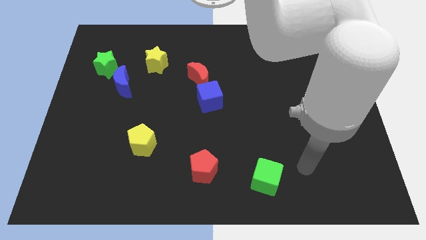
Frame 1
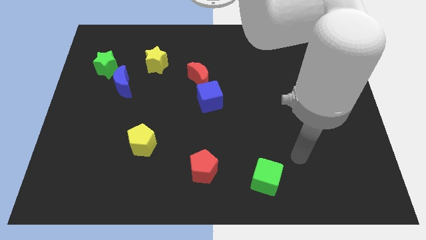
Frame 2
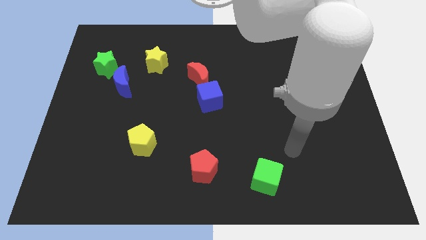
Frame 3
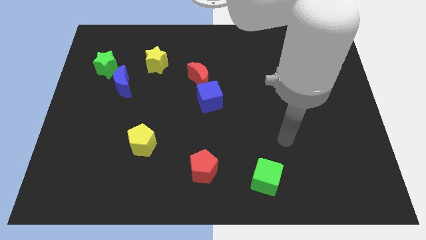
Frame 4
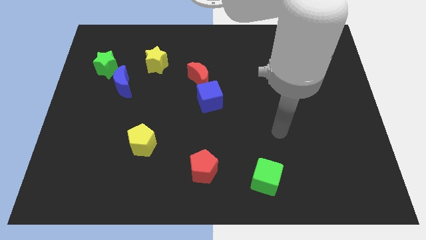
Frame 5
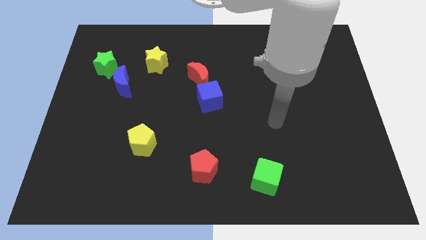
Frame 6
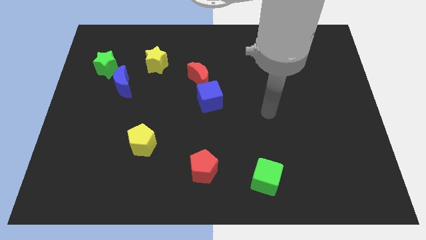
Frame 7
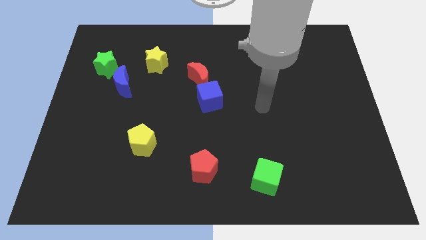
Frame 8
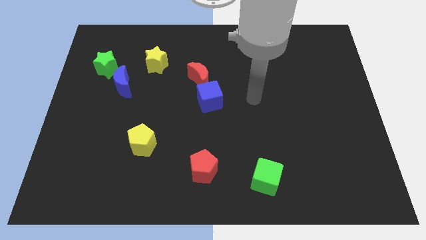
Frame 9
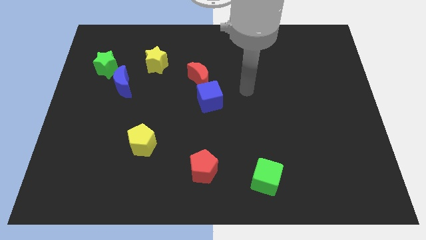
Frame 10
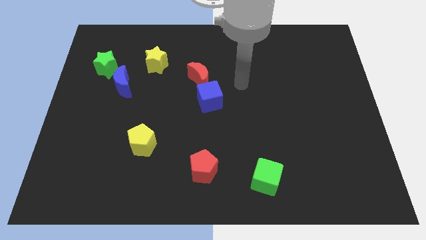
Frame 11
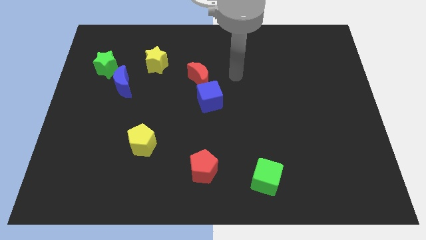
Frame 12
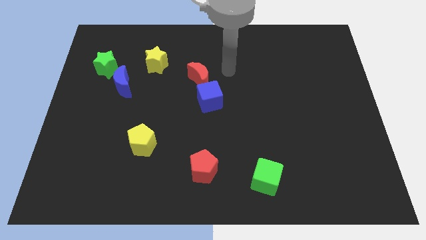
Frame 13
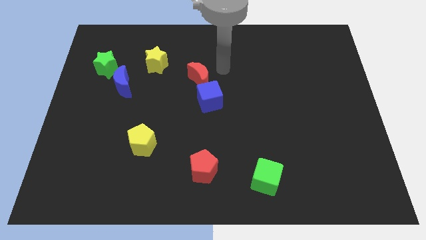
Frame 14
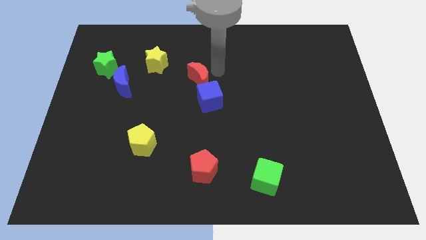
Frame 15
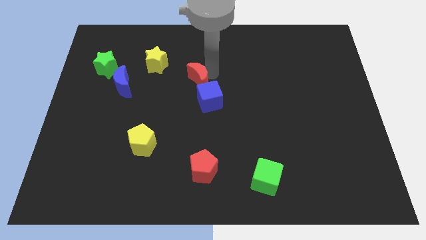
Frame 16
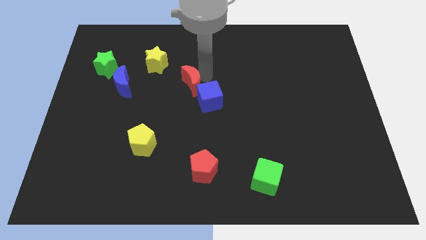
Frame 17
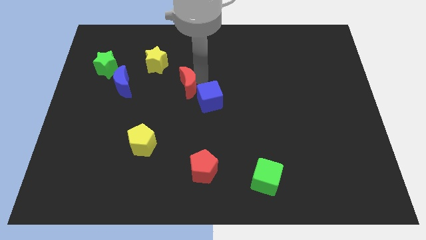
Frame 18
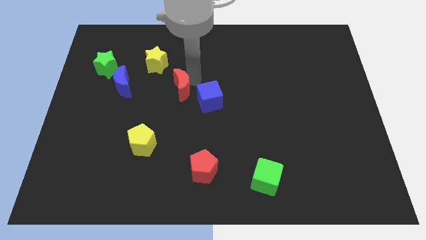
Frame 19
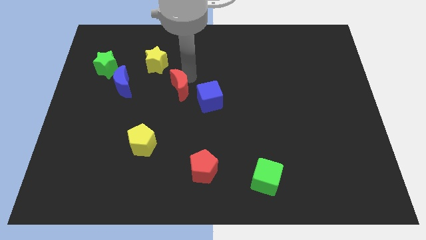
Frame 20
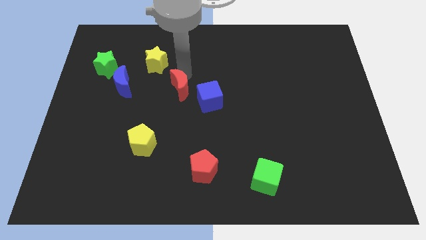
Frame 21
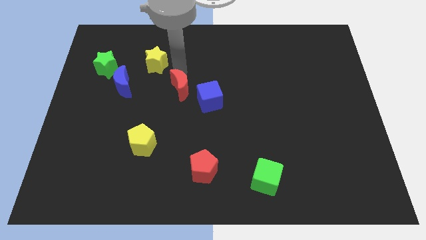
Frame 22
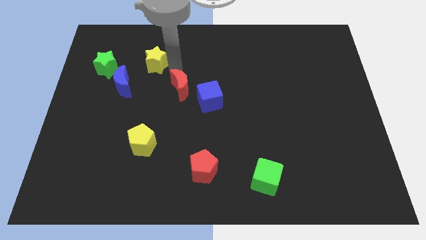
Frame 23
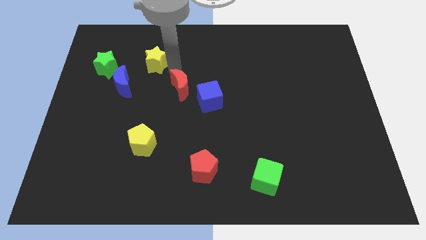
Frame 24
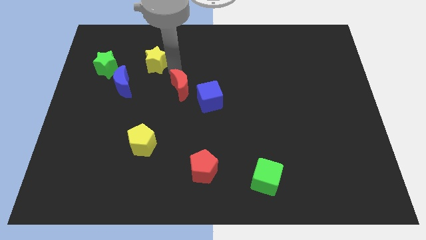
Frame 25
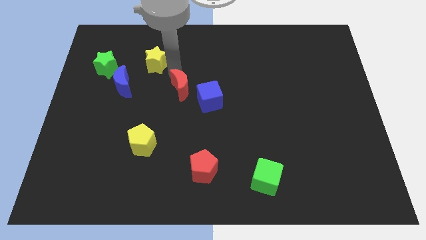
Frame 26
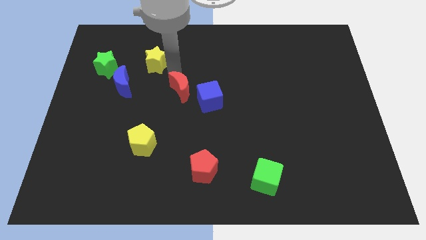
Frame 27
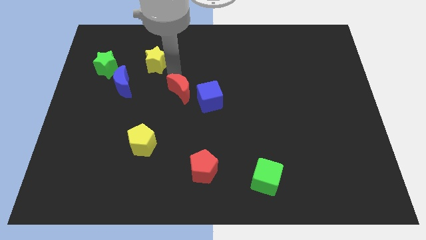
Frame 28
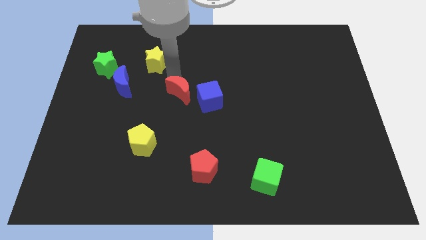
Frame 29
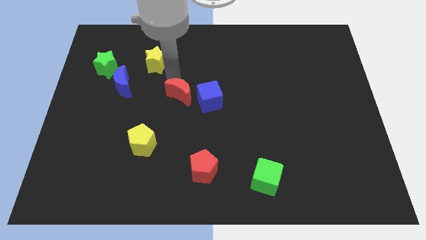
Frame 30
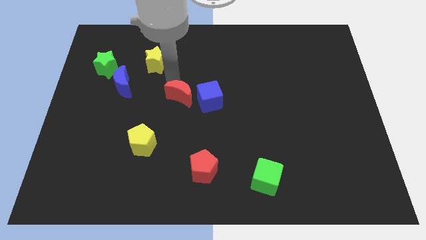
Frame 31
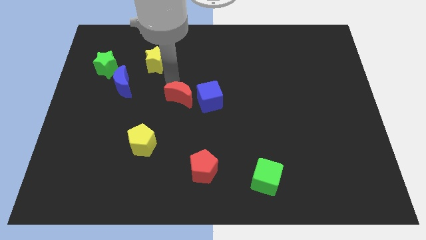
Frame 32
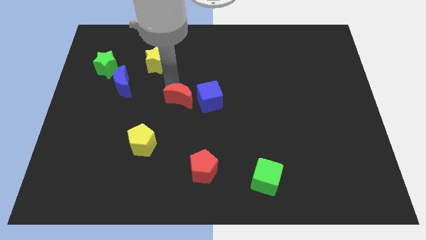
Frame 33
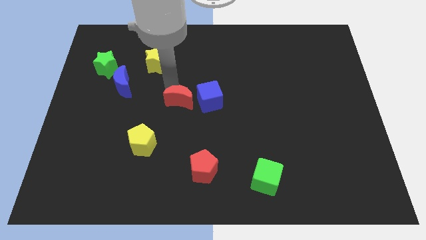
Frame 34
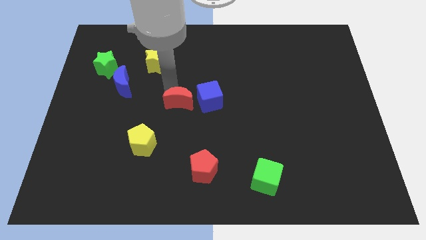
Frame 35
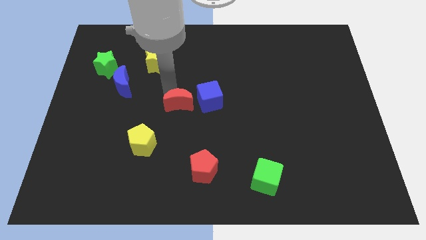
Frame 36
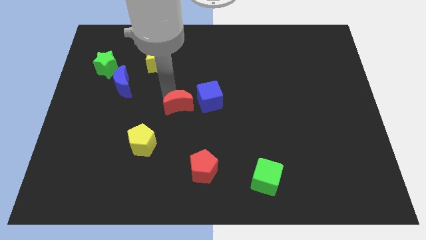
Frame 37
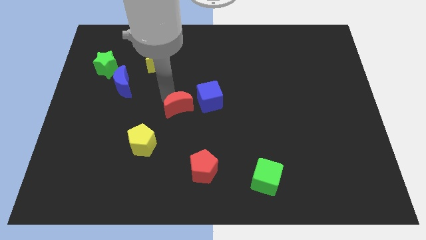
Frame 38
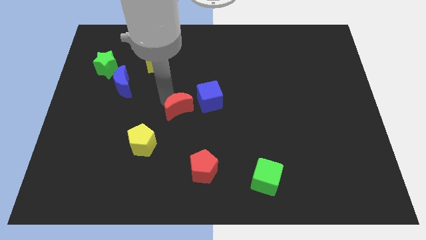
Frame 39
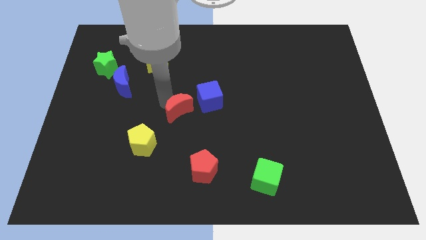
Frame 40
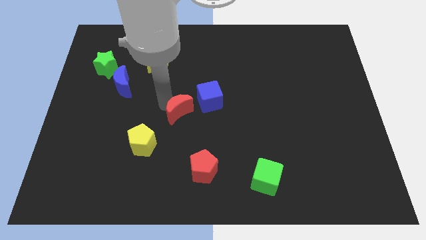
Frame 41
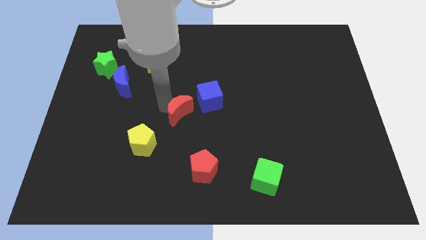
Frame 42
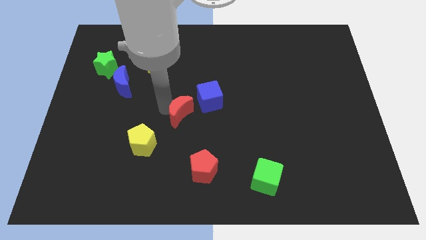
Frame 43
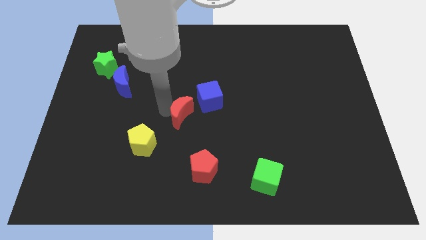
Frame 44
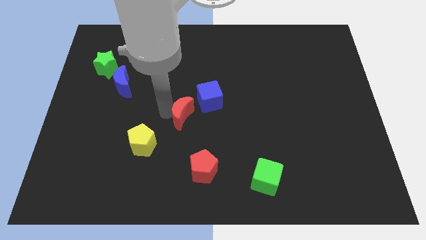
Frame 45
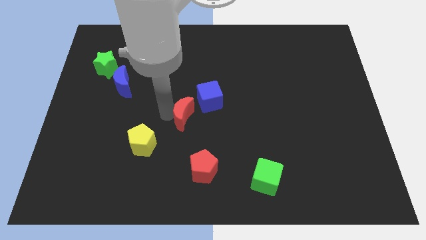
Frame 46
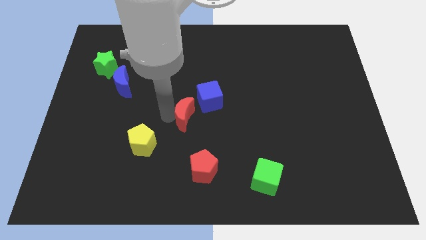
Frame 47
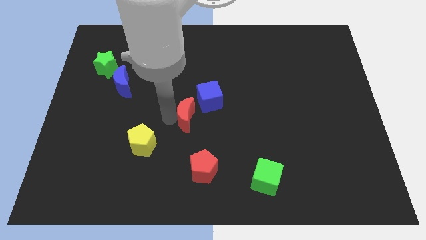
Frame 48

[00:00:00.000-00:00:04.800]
move the red moon above the red pentagon

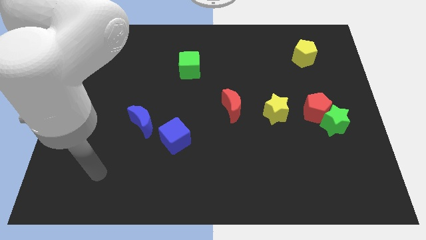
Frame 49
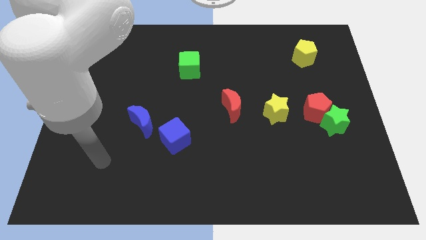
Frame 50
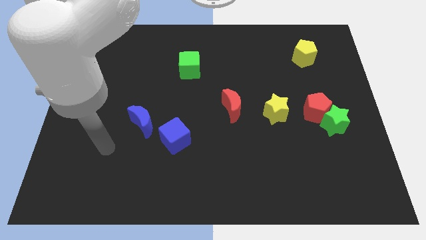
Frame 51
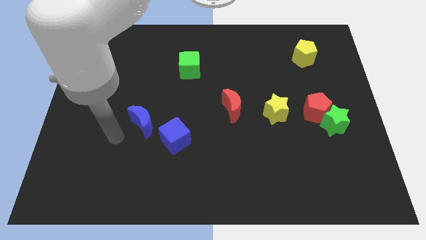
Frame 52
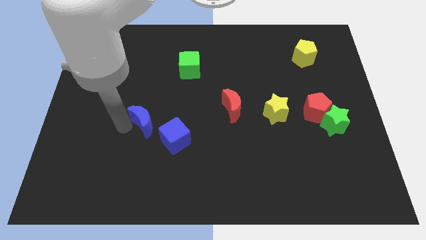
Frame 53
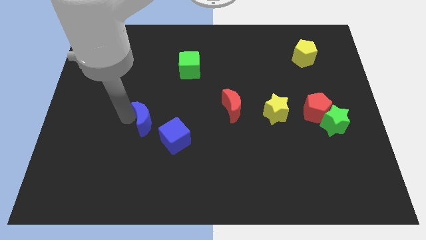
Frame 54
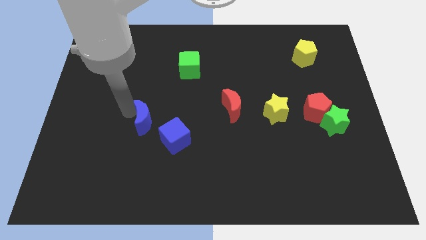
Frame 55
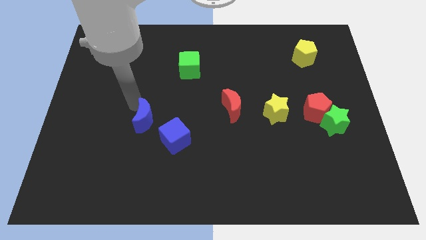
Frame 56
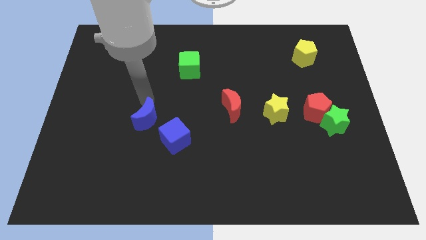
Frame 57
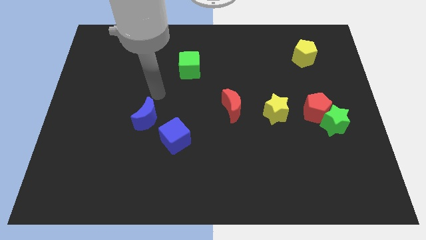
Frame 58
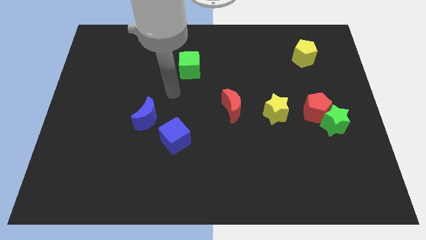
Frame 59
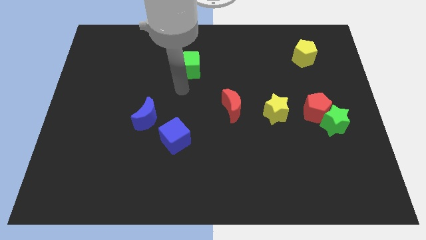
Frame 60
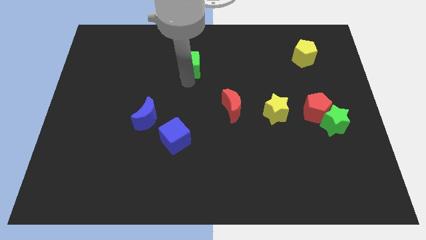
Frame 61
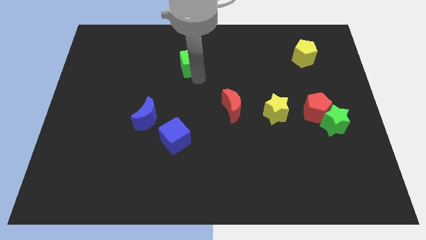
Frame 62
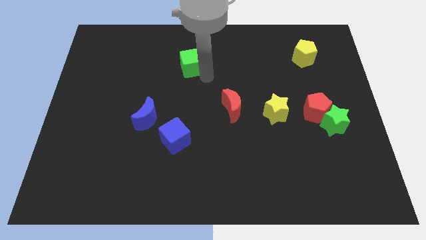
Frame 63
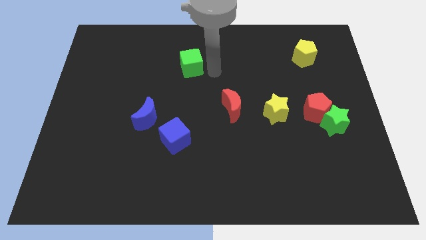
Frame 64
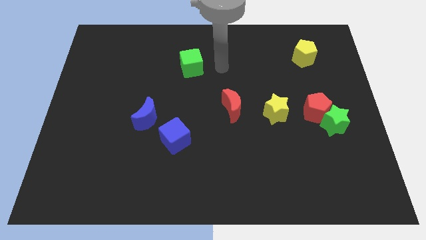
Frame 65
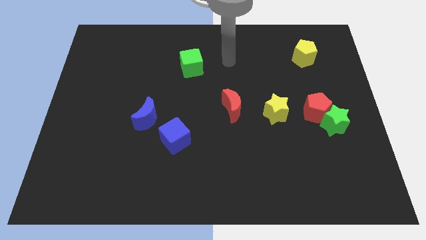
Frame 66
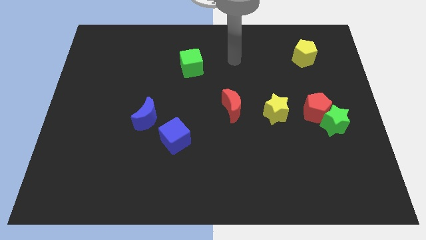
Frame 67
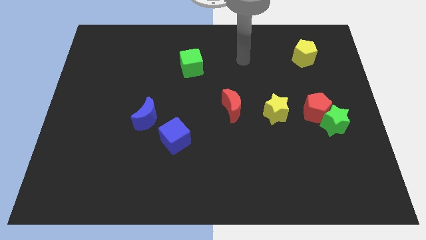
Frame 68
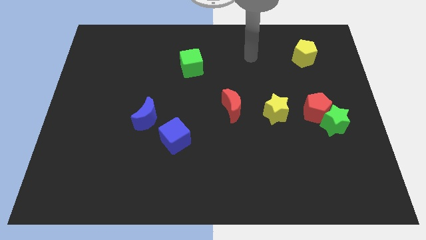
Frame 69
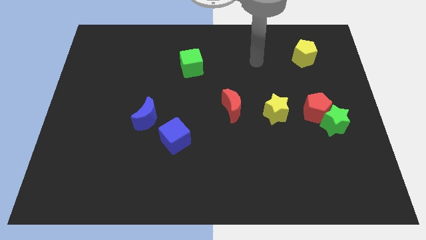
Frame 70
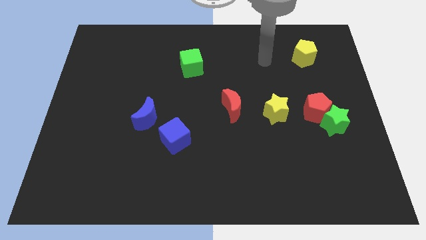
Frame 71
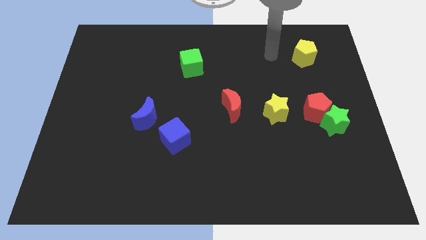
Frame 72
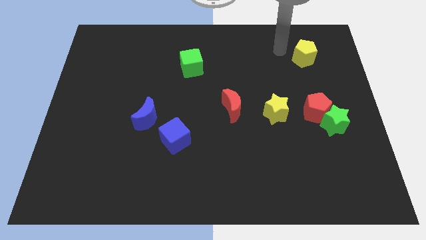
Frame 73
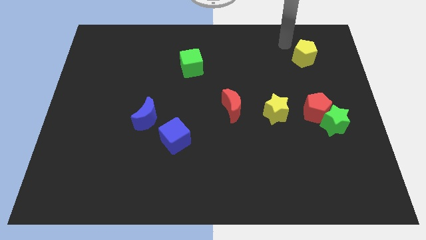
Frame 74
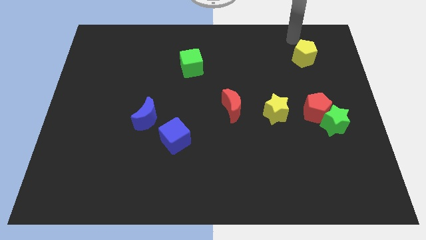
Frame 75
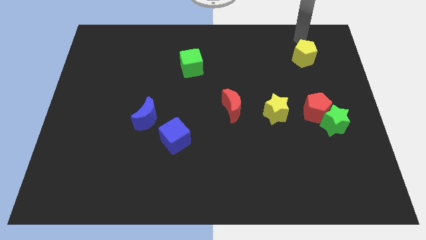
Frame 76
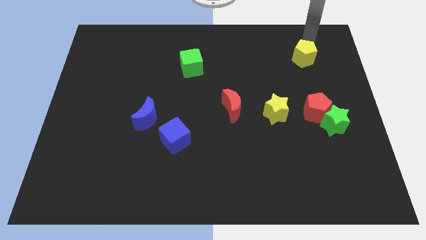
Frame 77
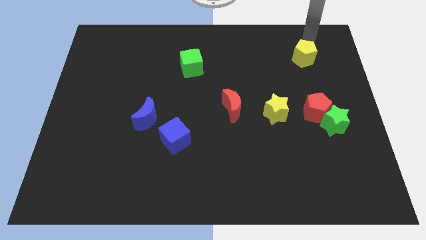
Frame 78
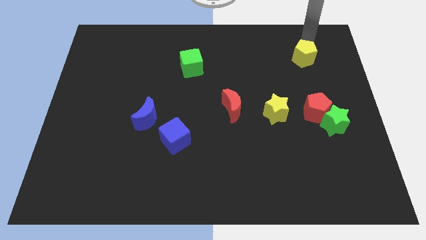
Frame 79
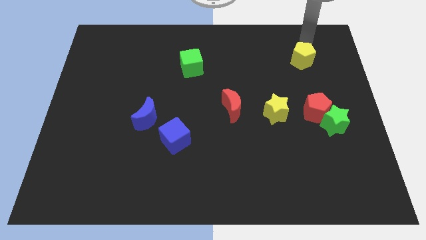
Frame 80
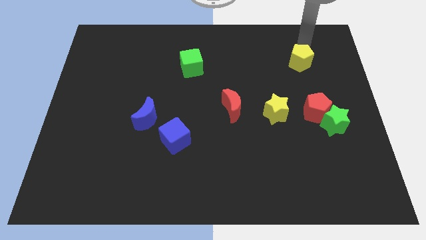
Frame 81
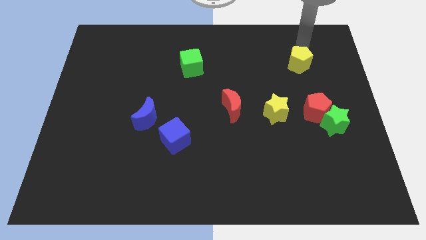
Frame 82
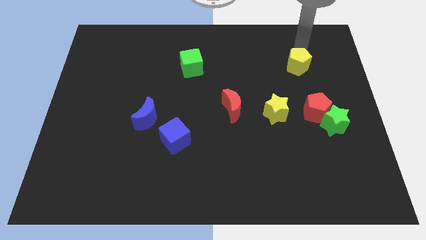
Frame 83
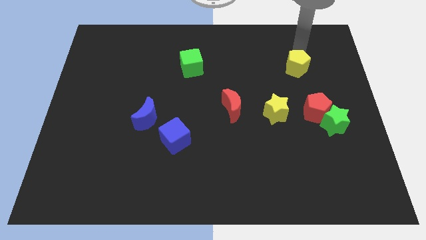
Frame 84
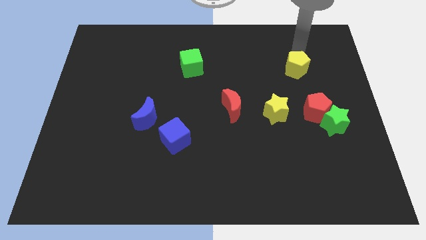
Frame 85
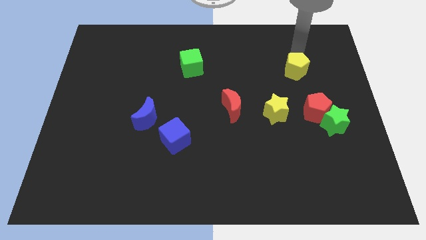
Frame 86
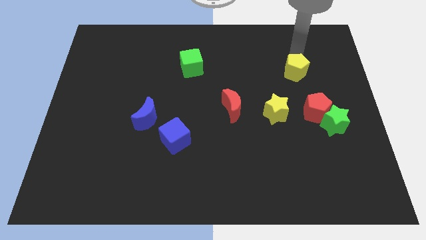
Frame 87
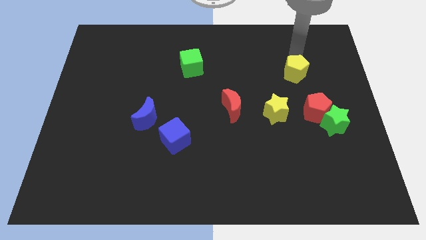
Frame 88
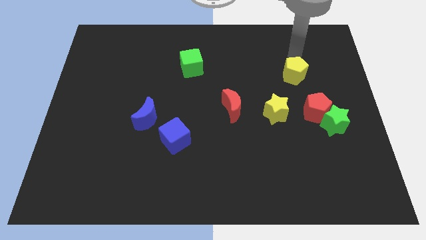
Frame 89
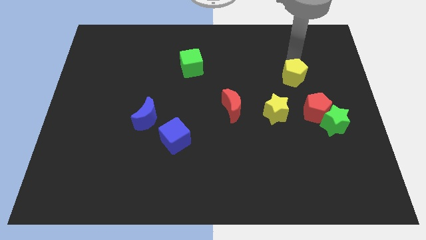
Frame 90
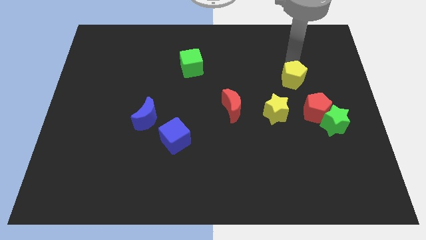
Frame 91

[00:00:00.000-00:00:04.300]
move the yellow pentagon to the top left side of the red pentagon
